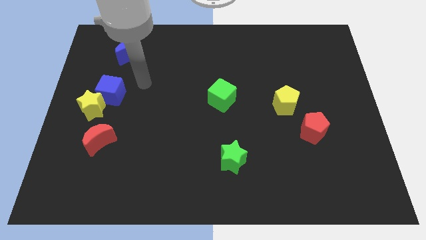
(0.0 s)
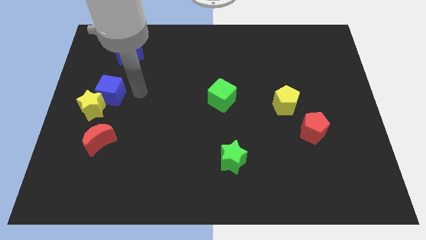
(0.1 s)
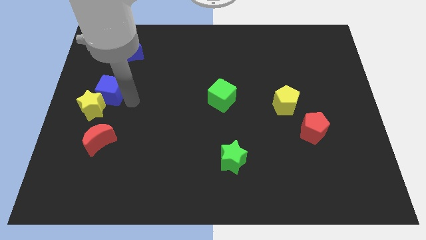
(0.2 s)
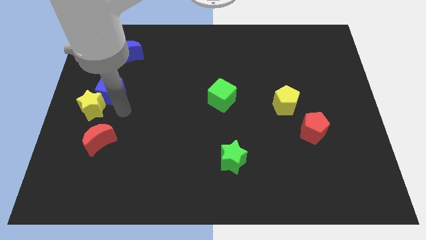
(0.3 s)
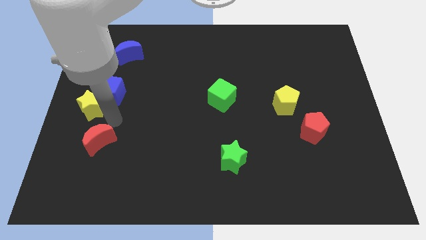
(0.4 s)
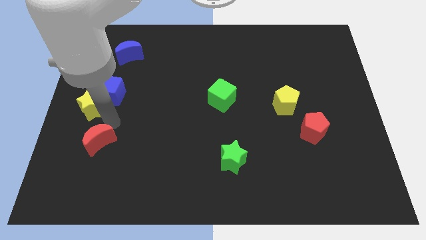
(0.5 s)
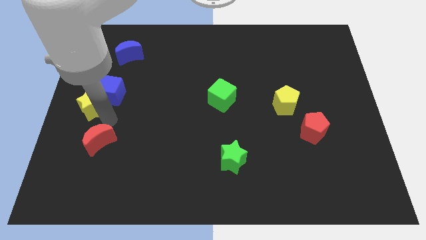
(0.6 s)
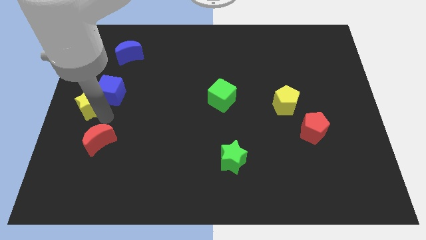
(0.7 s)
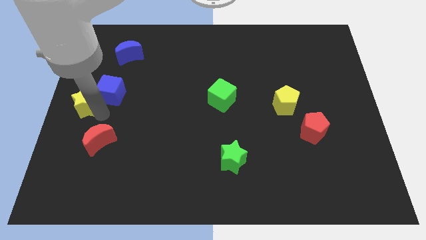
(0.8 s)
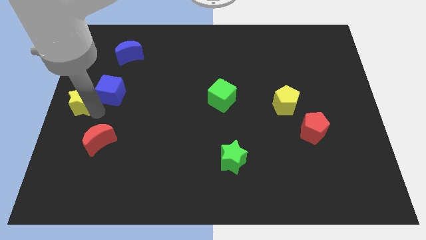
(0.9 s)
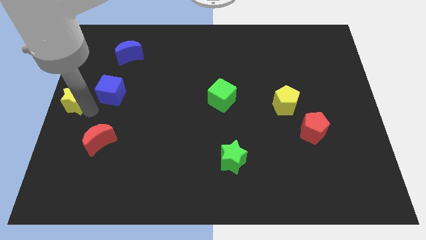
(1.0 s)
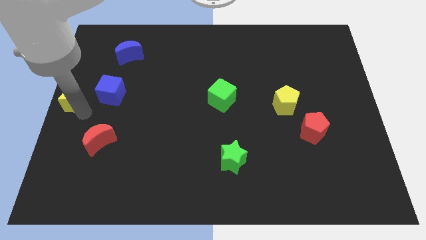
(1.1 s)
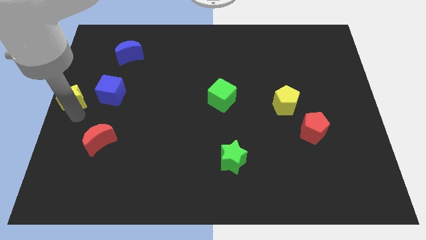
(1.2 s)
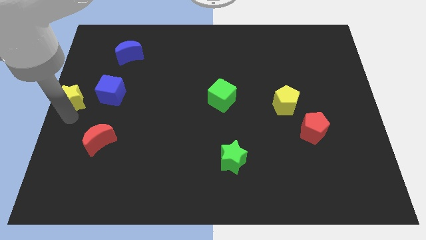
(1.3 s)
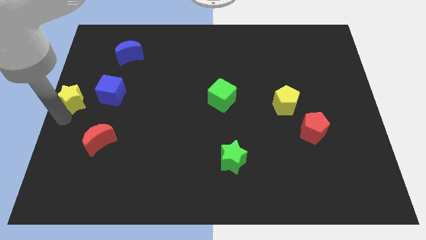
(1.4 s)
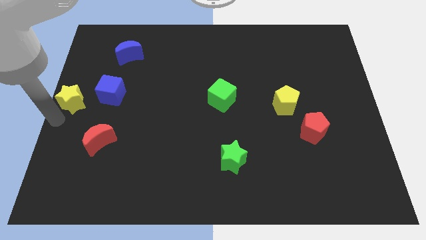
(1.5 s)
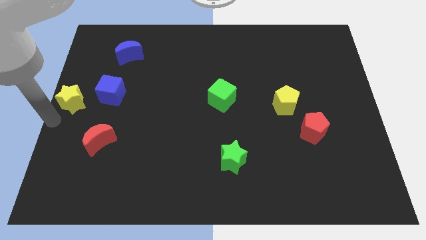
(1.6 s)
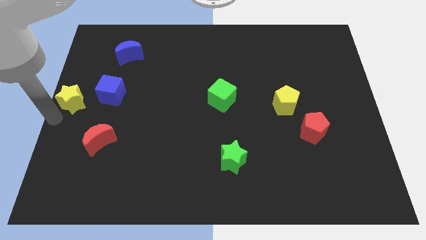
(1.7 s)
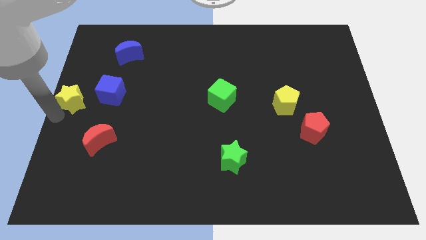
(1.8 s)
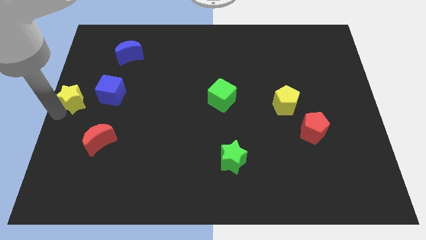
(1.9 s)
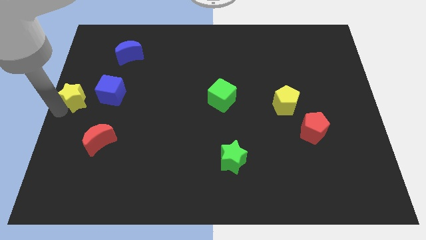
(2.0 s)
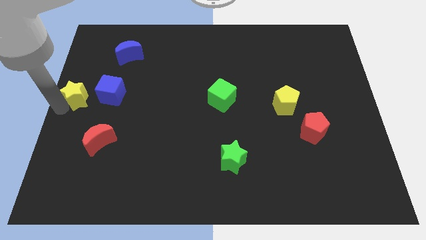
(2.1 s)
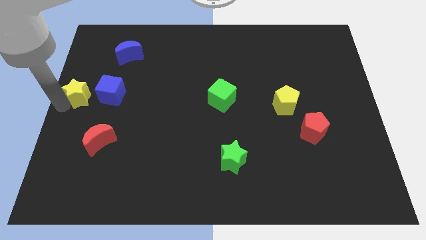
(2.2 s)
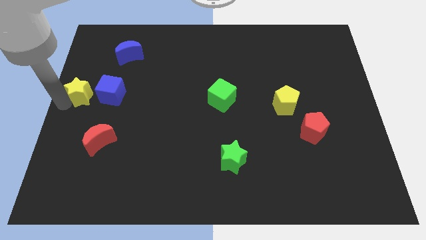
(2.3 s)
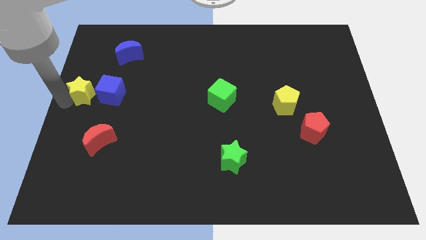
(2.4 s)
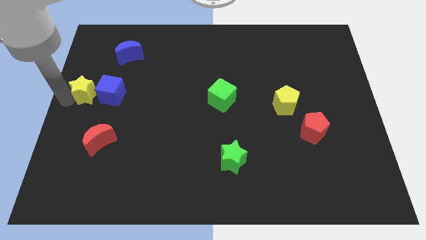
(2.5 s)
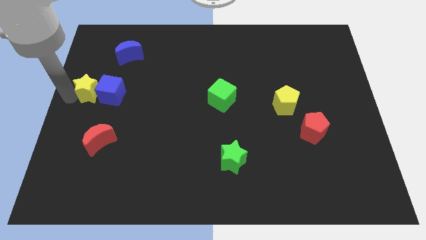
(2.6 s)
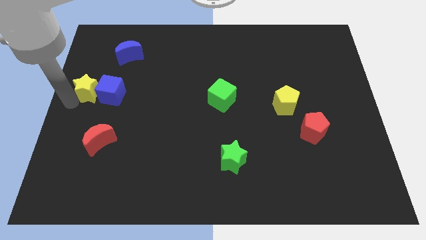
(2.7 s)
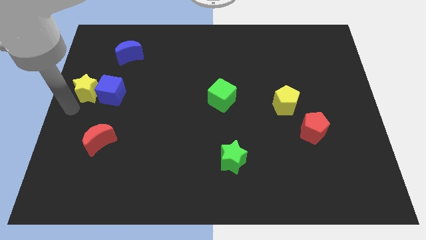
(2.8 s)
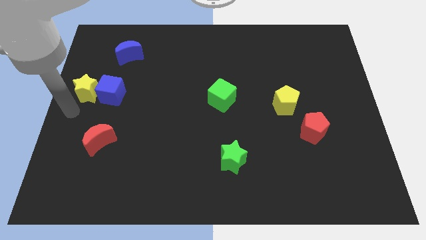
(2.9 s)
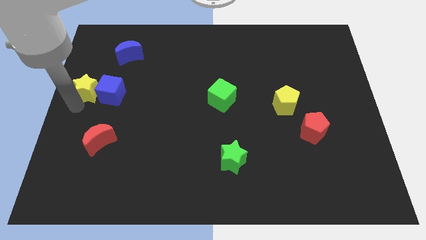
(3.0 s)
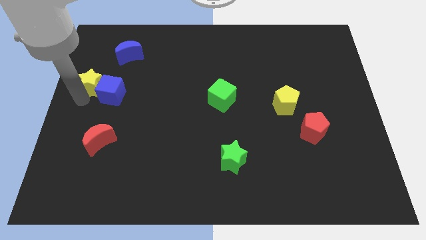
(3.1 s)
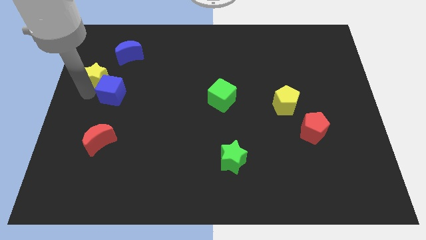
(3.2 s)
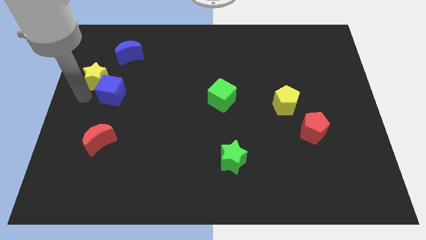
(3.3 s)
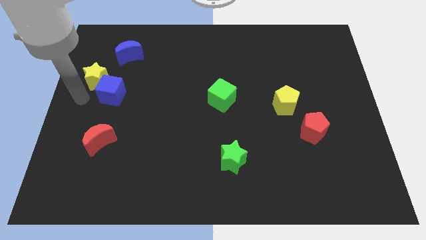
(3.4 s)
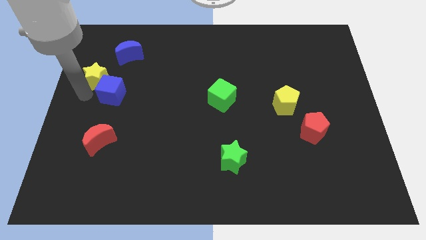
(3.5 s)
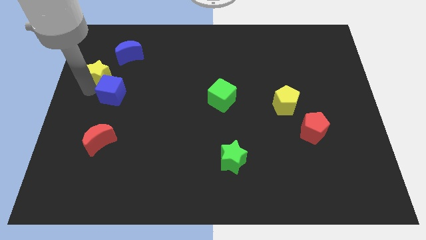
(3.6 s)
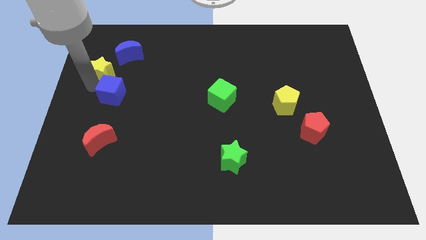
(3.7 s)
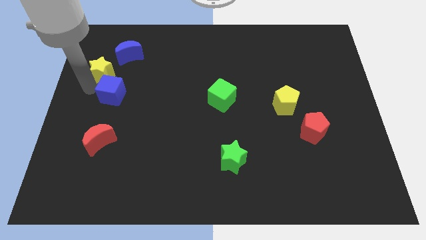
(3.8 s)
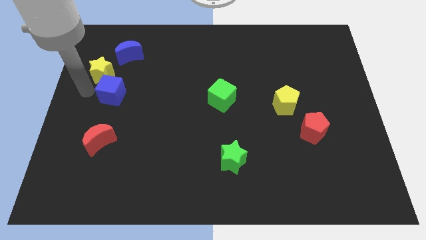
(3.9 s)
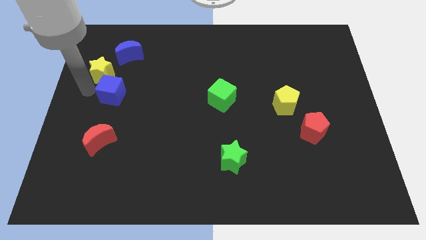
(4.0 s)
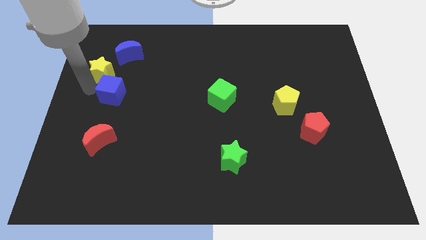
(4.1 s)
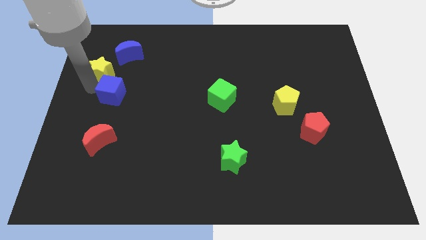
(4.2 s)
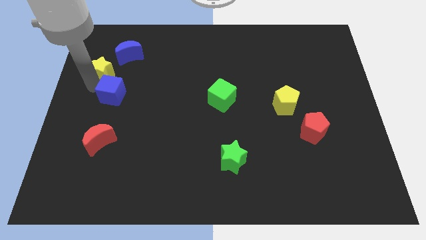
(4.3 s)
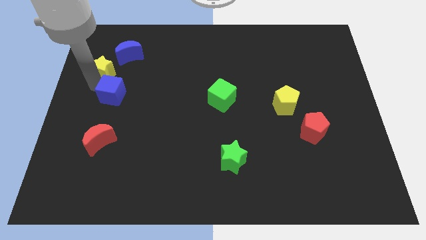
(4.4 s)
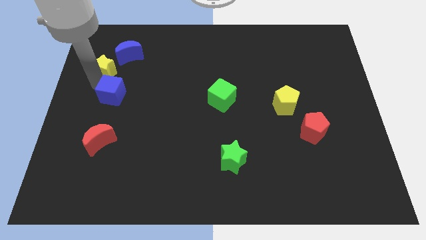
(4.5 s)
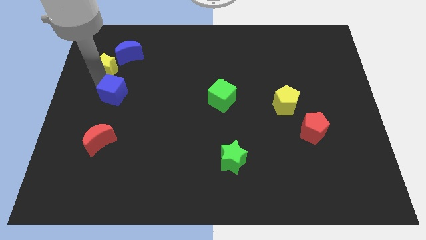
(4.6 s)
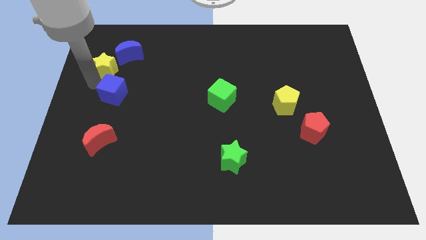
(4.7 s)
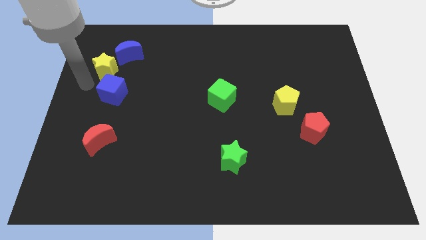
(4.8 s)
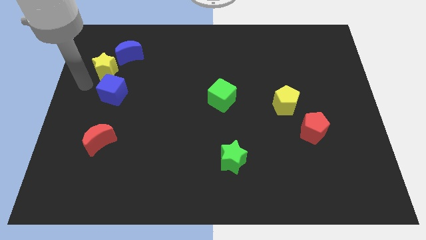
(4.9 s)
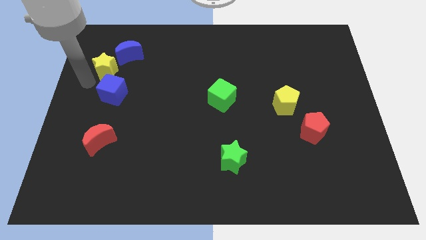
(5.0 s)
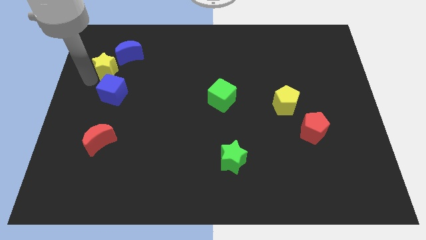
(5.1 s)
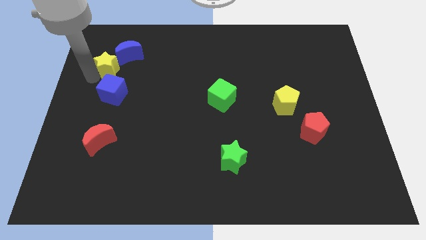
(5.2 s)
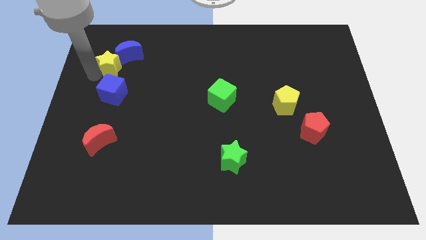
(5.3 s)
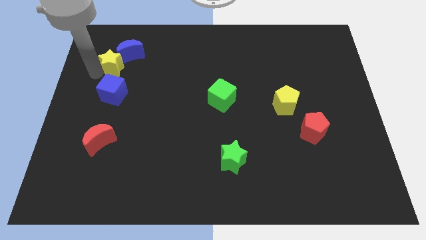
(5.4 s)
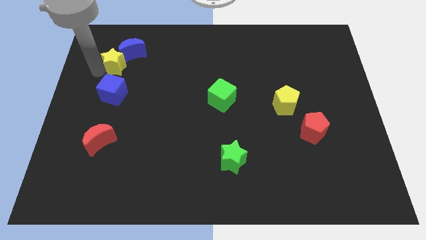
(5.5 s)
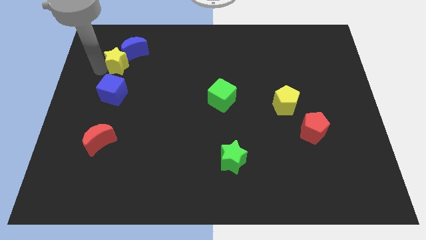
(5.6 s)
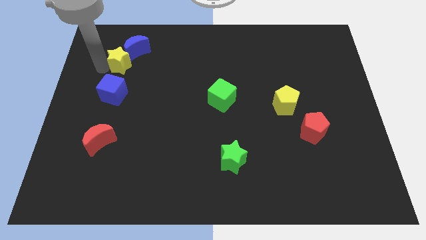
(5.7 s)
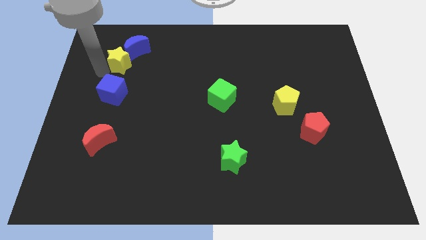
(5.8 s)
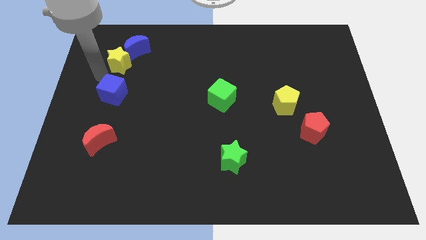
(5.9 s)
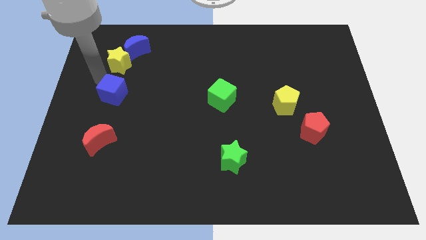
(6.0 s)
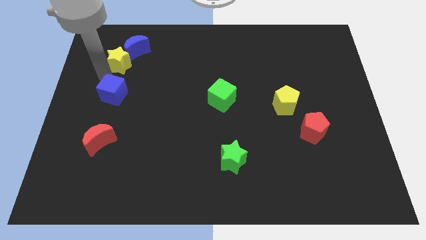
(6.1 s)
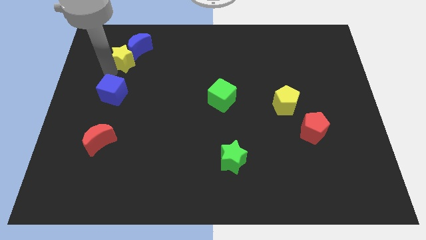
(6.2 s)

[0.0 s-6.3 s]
put the yellow star close to the blue moon
